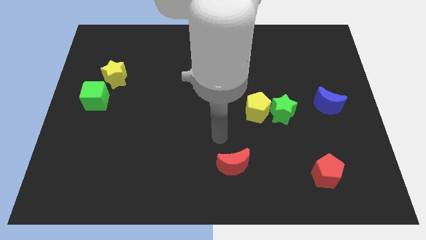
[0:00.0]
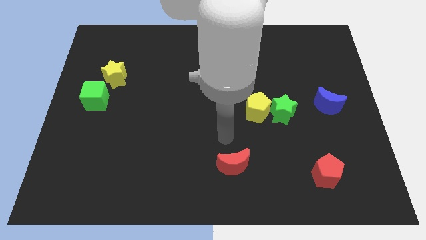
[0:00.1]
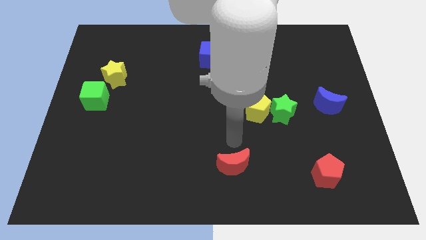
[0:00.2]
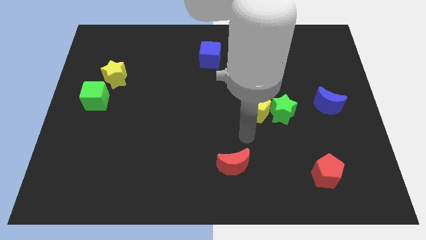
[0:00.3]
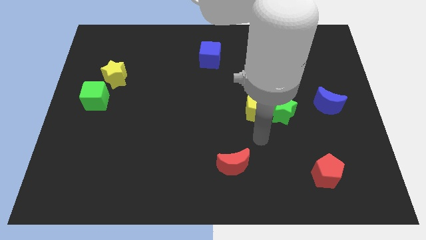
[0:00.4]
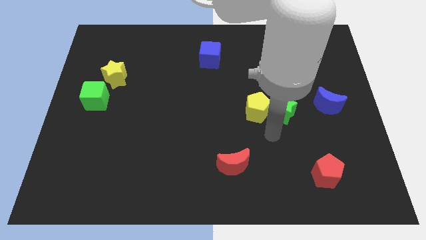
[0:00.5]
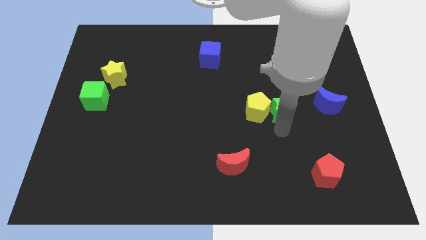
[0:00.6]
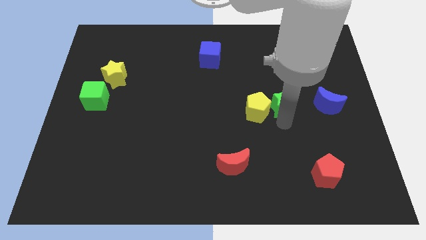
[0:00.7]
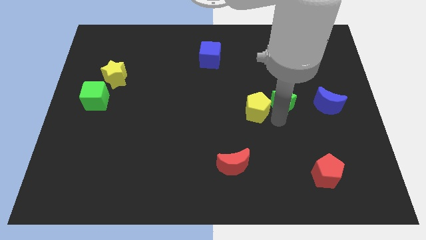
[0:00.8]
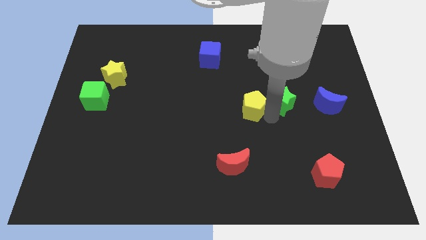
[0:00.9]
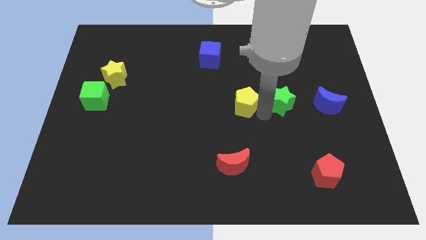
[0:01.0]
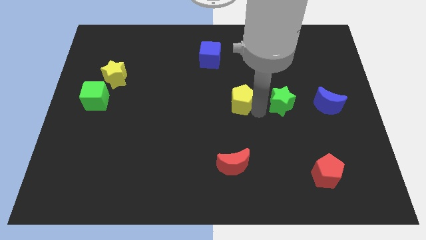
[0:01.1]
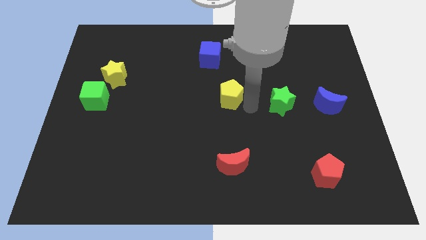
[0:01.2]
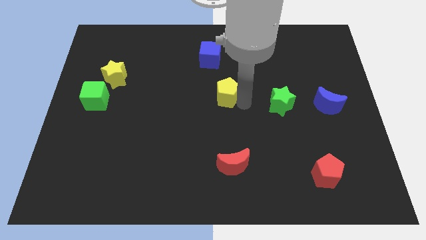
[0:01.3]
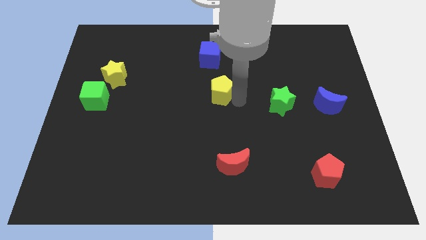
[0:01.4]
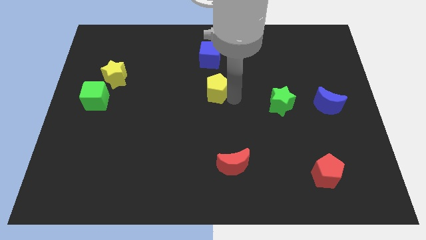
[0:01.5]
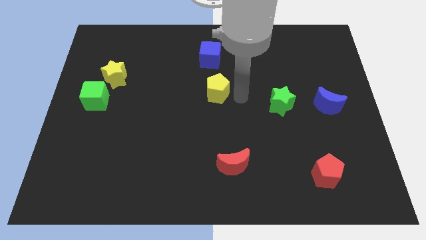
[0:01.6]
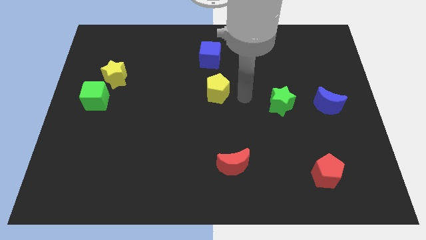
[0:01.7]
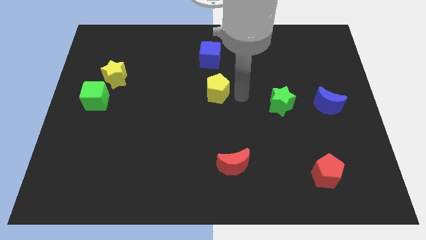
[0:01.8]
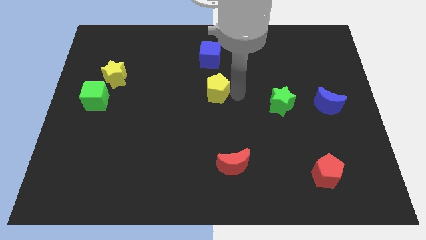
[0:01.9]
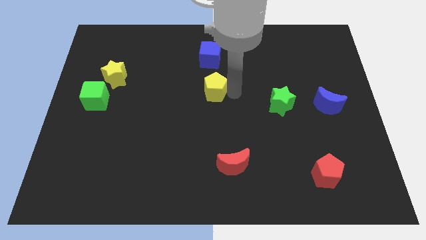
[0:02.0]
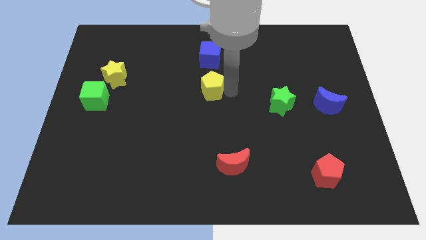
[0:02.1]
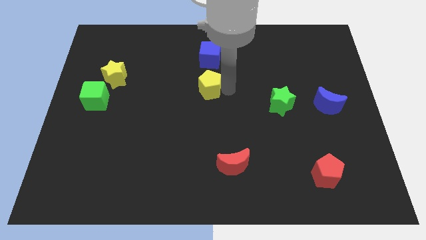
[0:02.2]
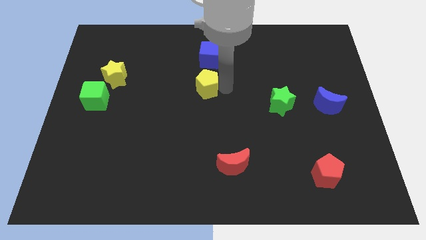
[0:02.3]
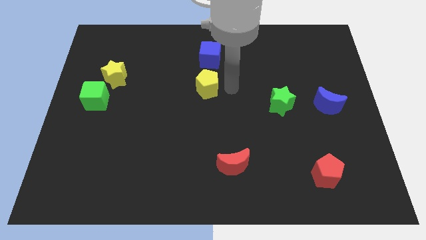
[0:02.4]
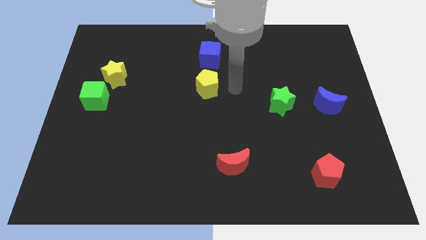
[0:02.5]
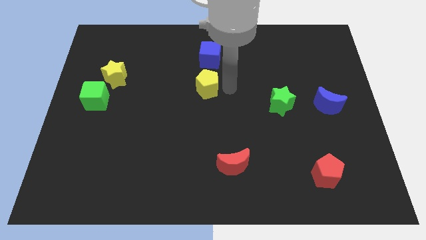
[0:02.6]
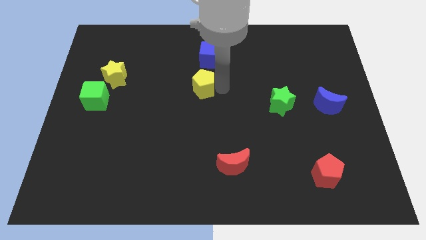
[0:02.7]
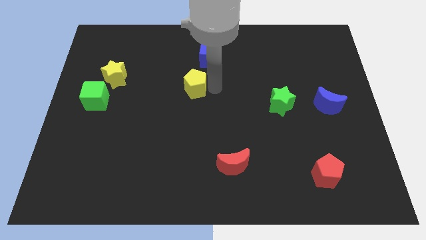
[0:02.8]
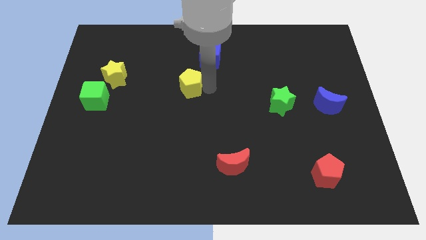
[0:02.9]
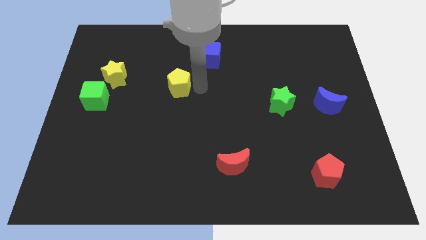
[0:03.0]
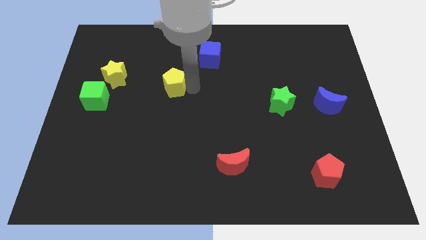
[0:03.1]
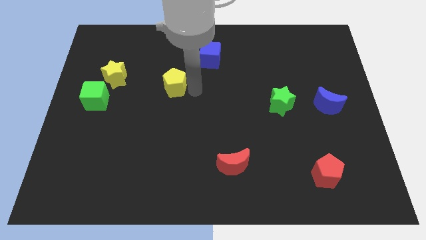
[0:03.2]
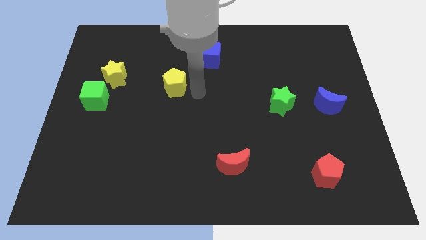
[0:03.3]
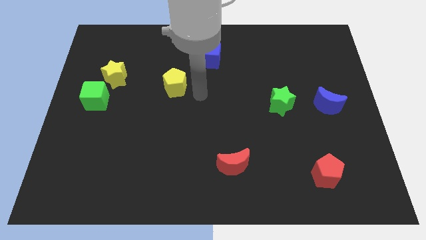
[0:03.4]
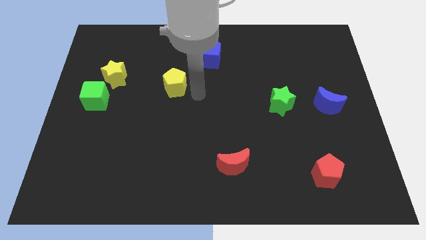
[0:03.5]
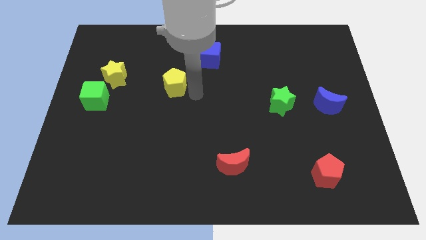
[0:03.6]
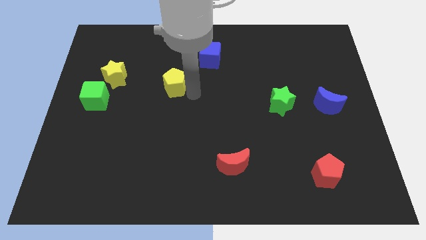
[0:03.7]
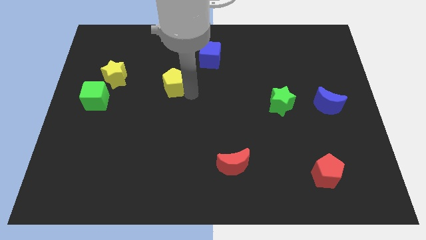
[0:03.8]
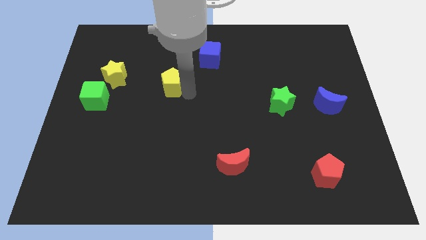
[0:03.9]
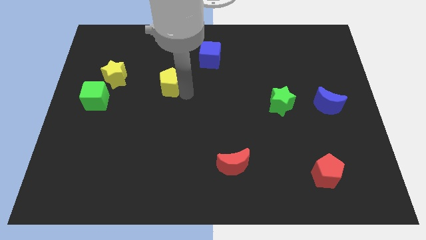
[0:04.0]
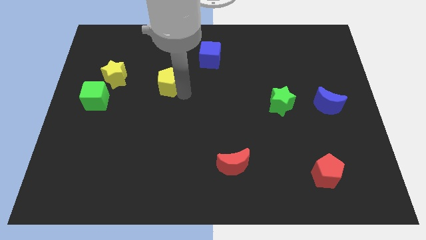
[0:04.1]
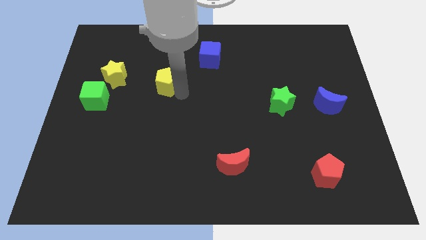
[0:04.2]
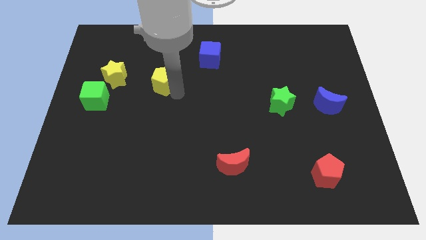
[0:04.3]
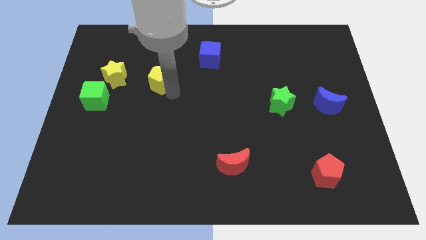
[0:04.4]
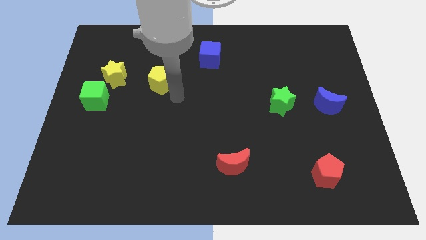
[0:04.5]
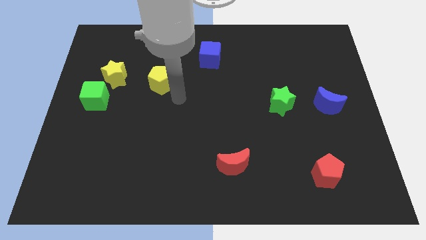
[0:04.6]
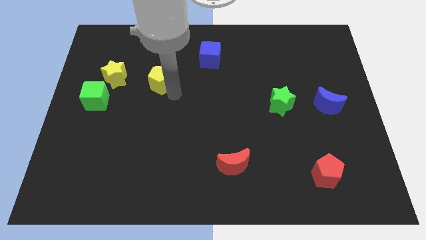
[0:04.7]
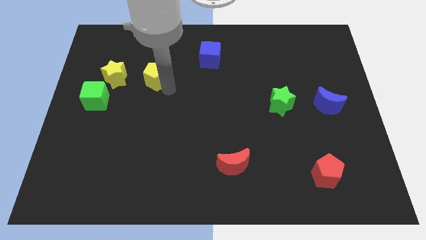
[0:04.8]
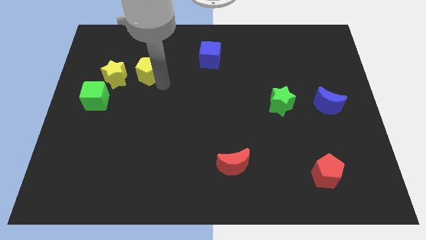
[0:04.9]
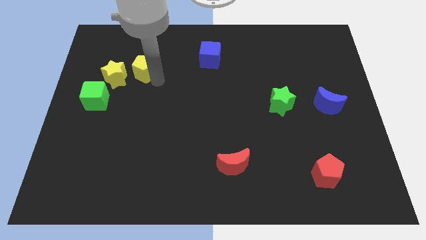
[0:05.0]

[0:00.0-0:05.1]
slide the yellow pentagon to the top right of the yellow star

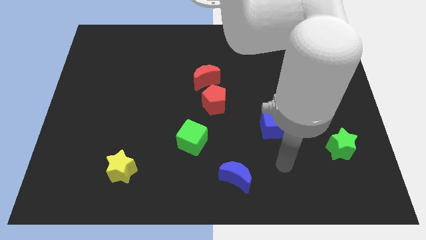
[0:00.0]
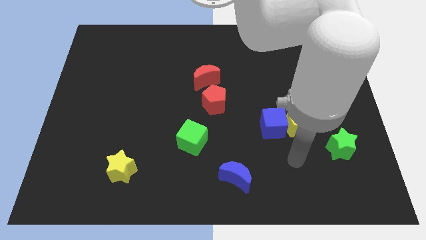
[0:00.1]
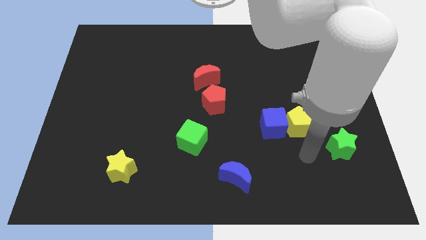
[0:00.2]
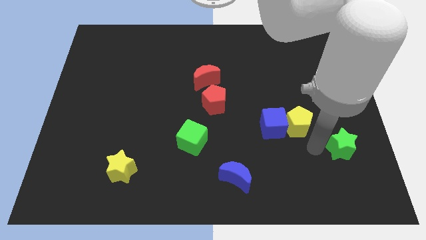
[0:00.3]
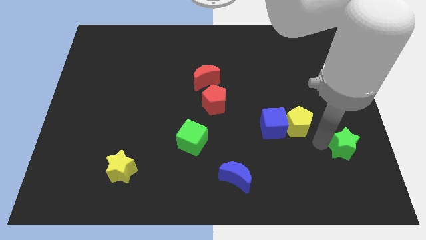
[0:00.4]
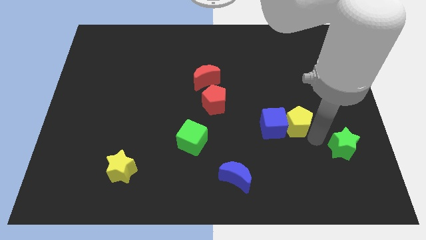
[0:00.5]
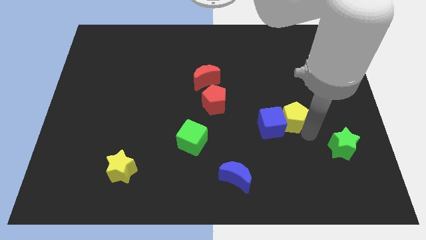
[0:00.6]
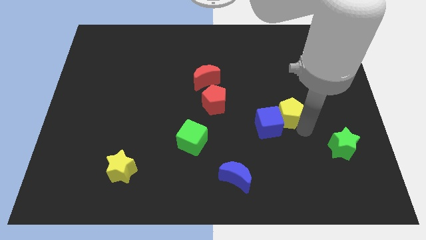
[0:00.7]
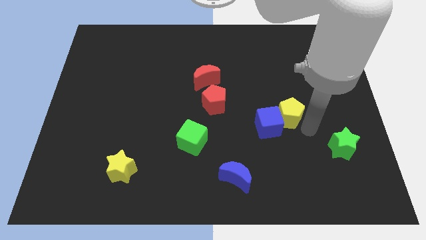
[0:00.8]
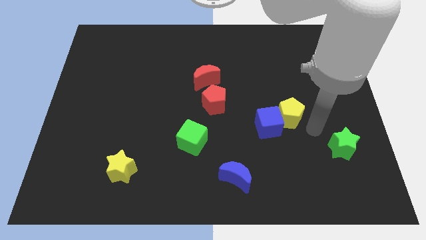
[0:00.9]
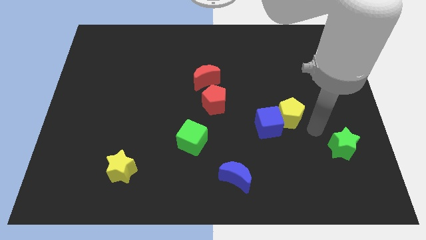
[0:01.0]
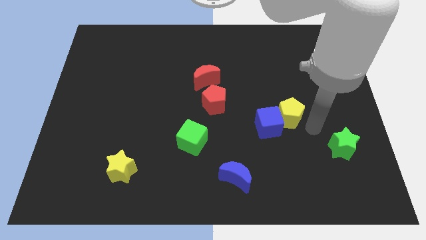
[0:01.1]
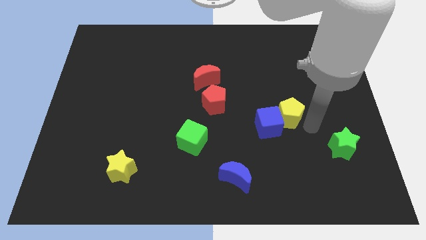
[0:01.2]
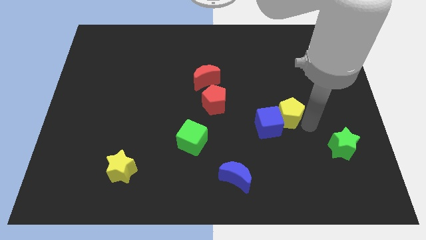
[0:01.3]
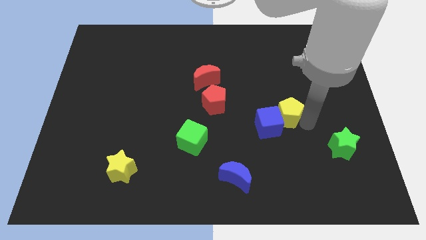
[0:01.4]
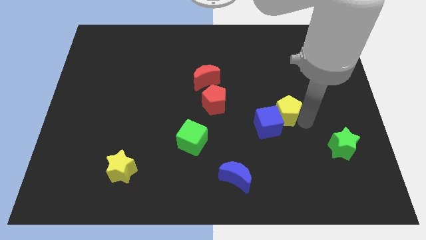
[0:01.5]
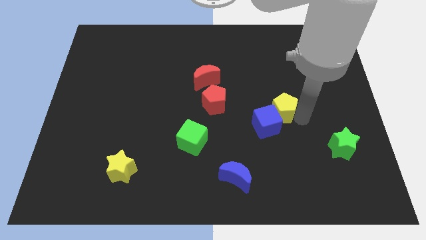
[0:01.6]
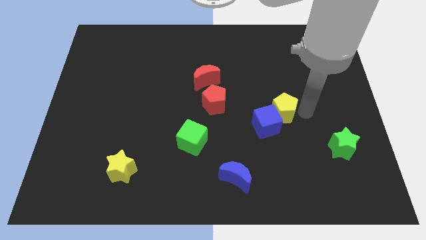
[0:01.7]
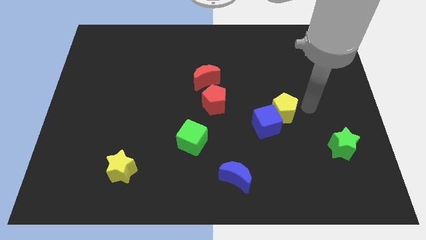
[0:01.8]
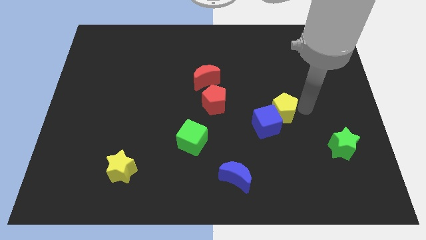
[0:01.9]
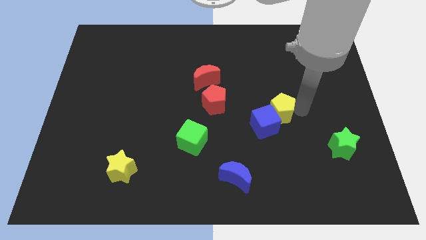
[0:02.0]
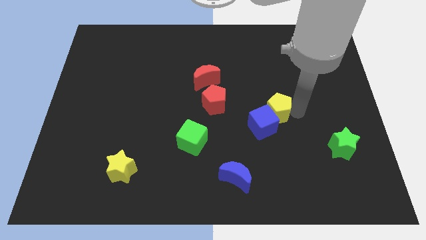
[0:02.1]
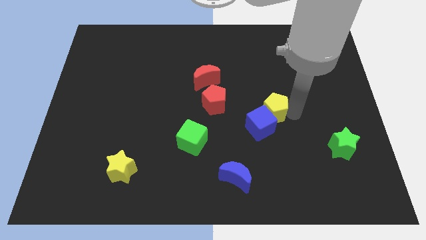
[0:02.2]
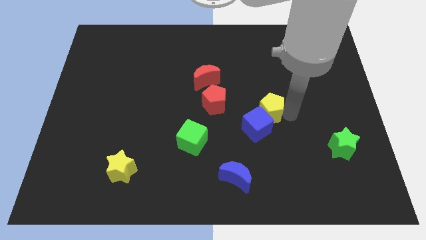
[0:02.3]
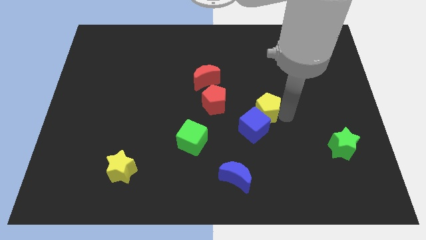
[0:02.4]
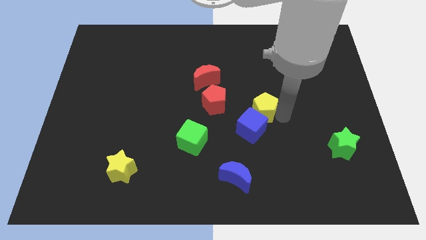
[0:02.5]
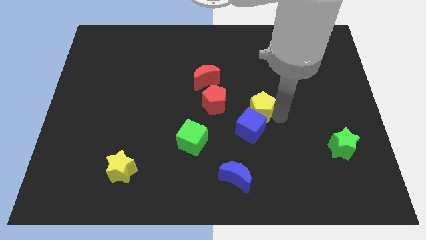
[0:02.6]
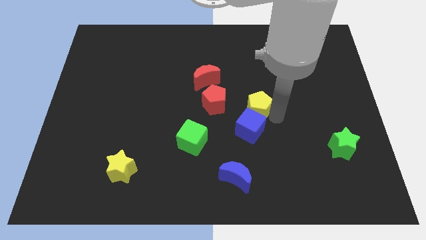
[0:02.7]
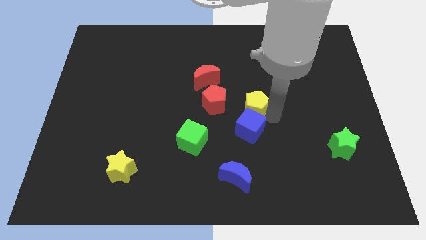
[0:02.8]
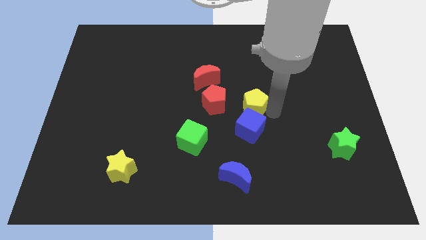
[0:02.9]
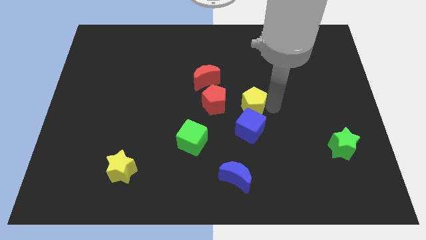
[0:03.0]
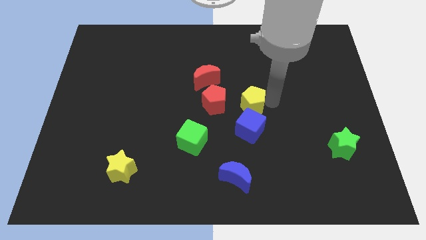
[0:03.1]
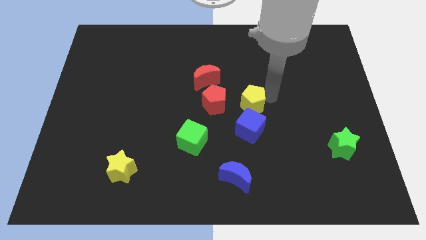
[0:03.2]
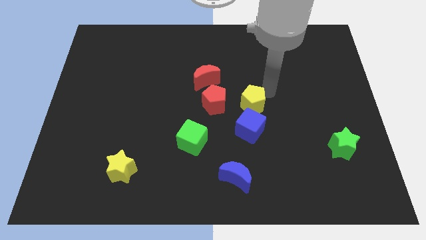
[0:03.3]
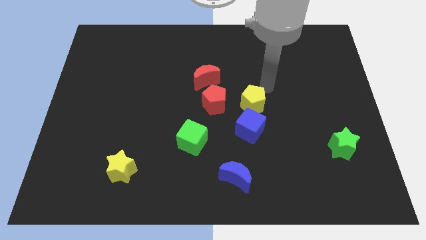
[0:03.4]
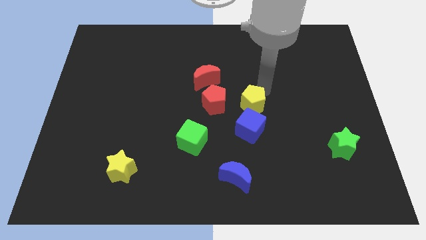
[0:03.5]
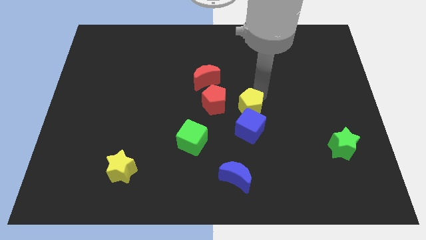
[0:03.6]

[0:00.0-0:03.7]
move the yellow pentagon to the bottom right of the red pentagon
